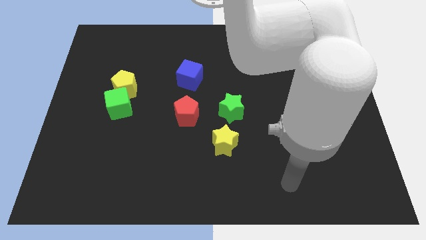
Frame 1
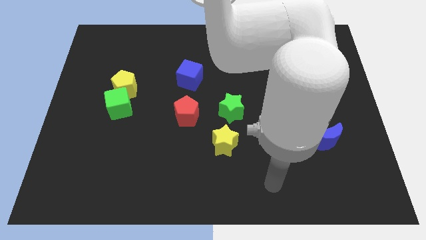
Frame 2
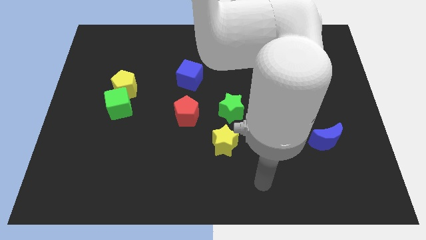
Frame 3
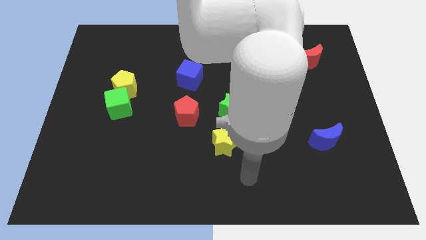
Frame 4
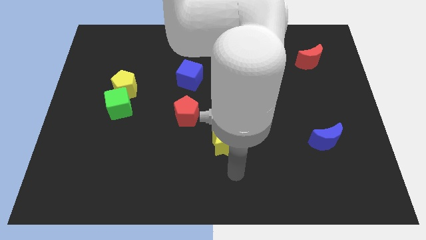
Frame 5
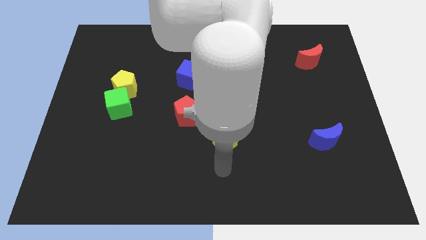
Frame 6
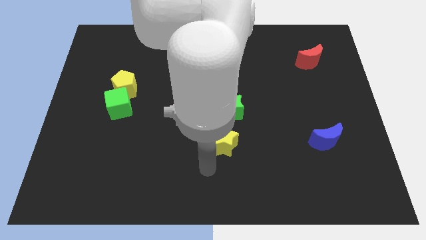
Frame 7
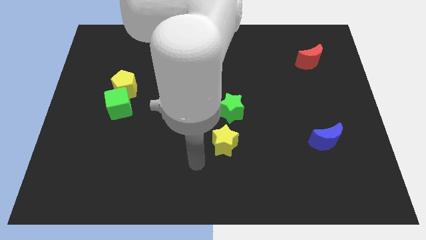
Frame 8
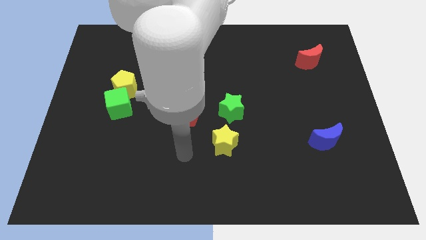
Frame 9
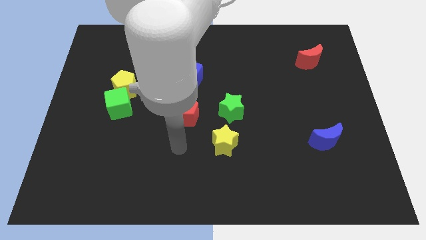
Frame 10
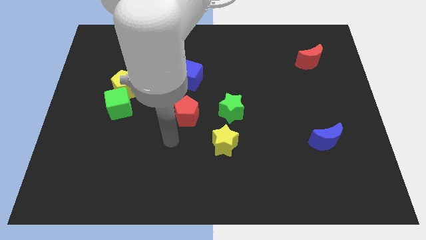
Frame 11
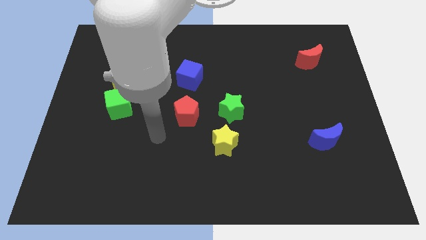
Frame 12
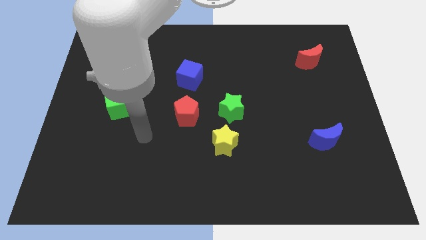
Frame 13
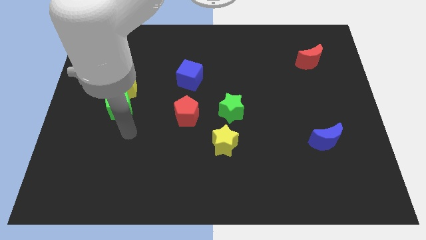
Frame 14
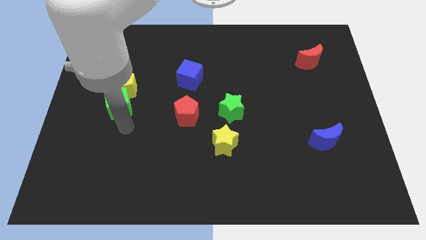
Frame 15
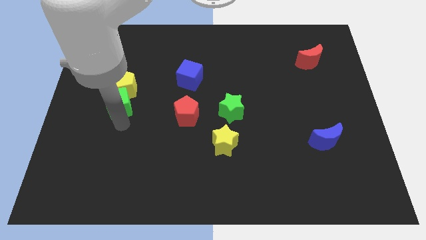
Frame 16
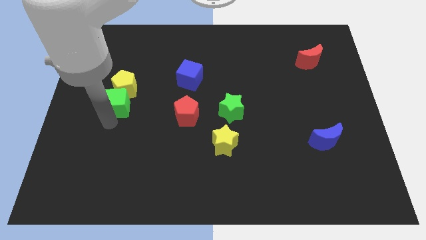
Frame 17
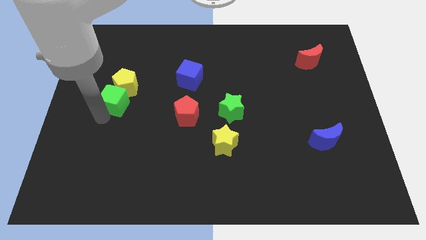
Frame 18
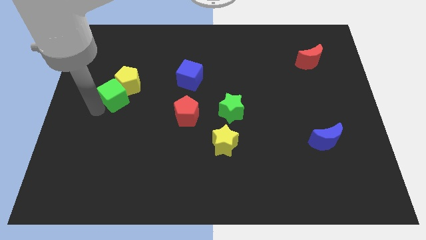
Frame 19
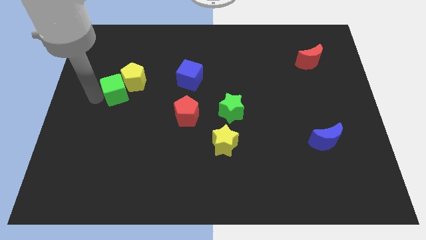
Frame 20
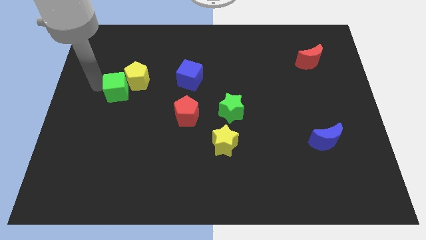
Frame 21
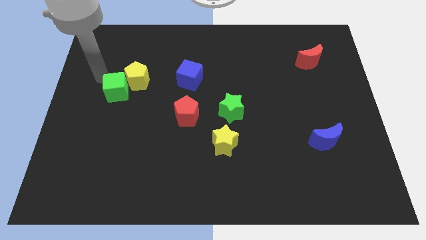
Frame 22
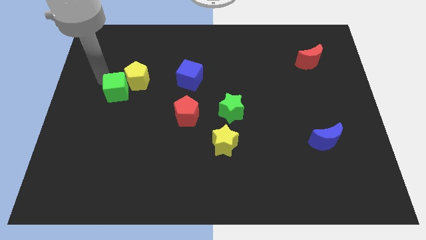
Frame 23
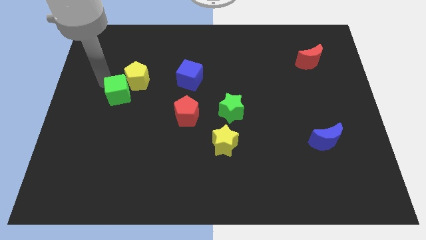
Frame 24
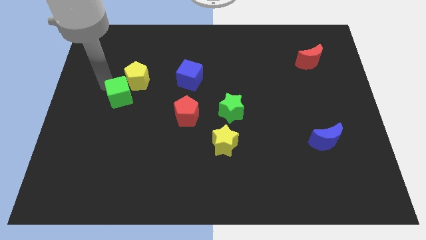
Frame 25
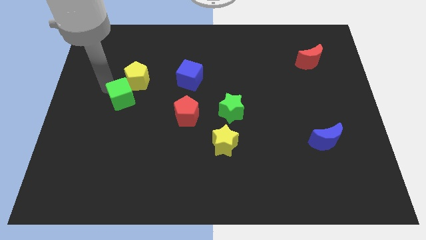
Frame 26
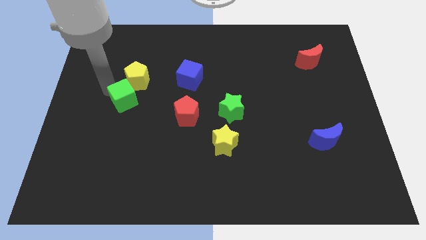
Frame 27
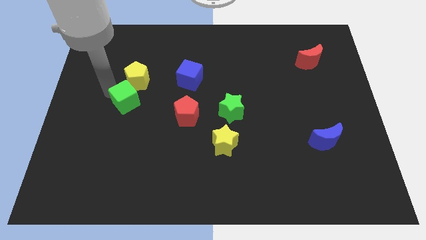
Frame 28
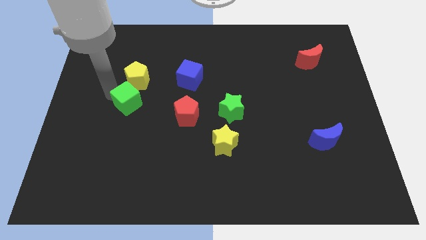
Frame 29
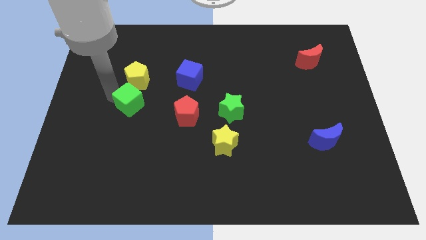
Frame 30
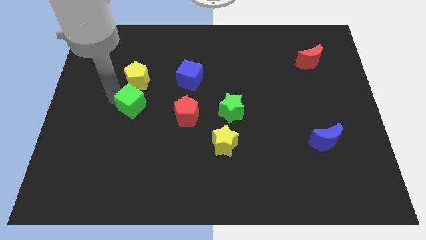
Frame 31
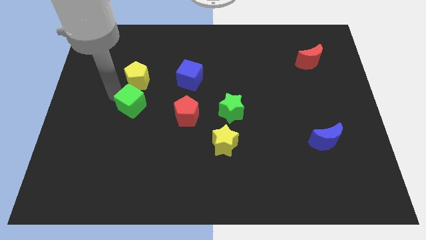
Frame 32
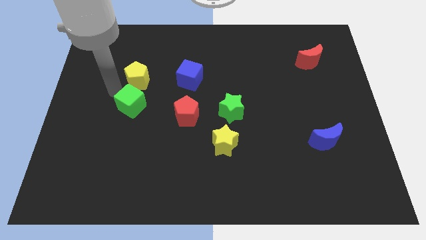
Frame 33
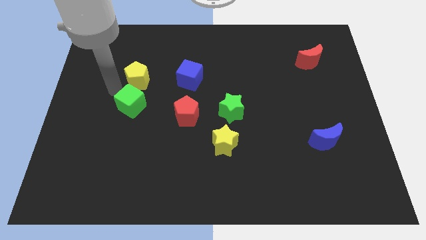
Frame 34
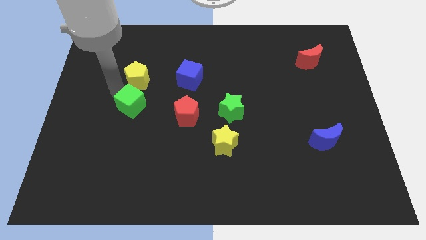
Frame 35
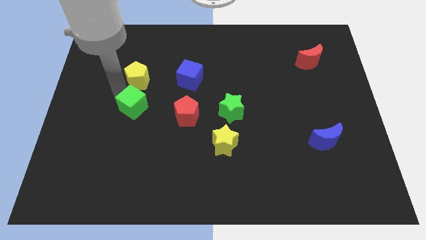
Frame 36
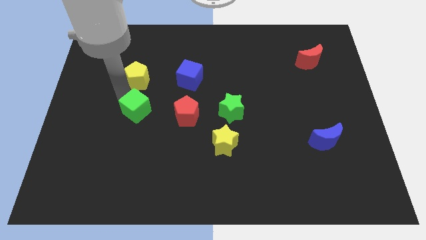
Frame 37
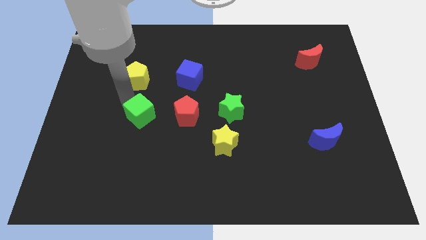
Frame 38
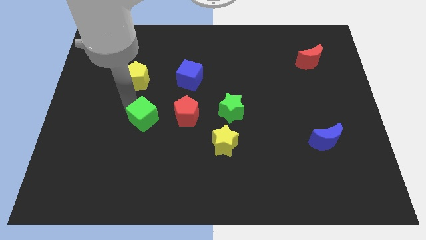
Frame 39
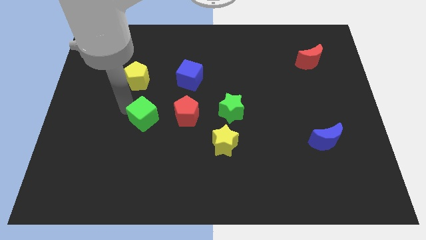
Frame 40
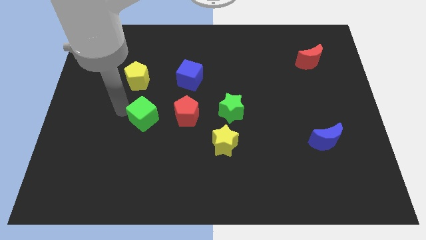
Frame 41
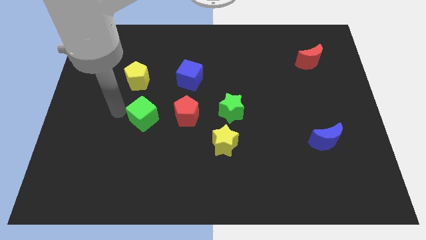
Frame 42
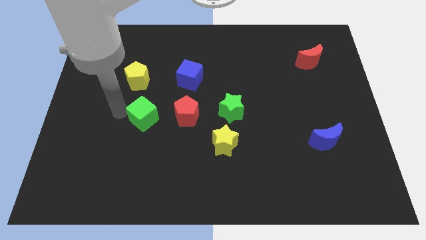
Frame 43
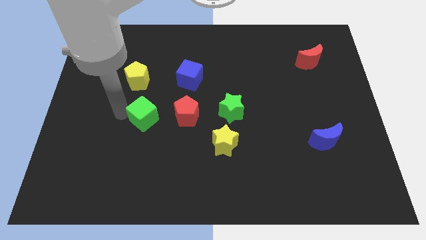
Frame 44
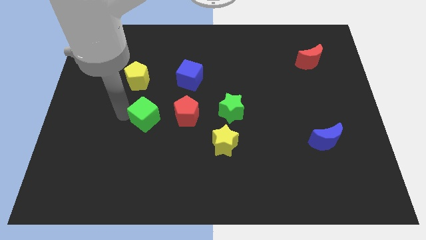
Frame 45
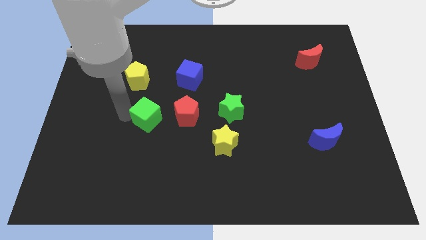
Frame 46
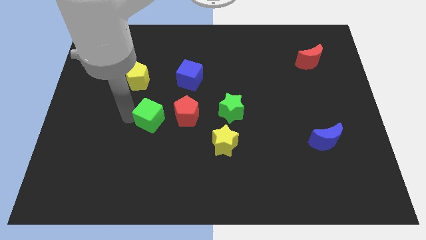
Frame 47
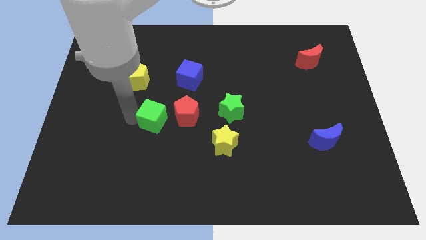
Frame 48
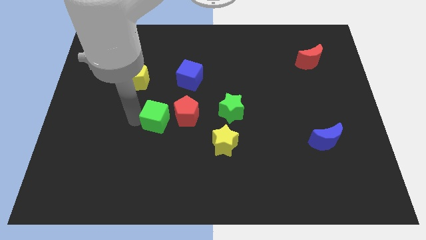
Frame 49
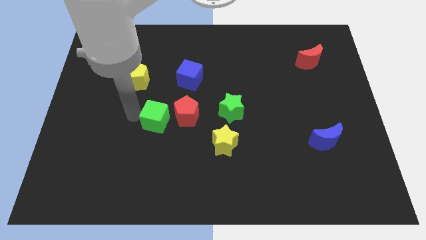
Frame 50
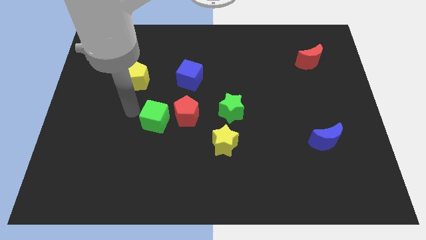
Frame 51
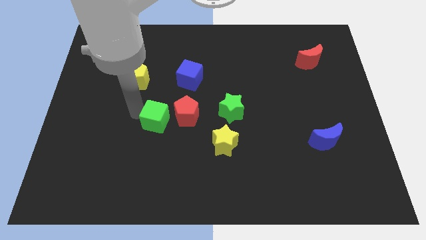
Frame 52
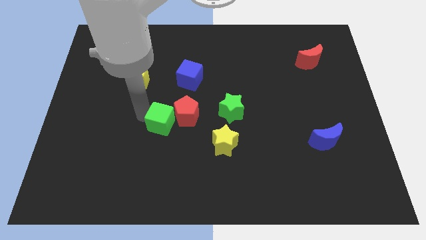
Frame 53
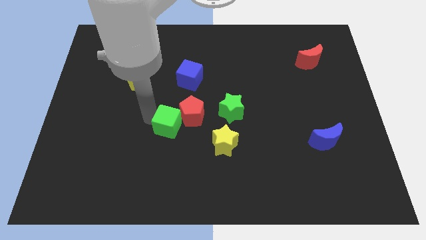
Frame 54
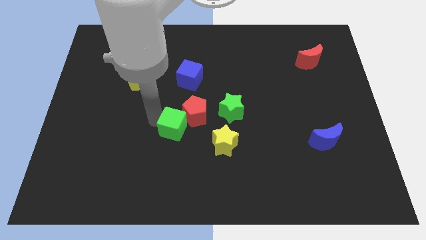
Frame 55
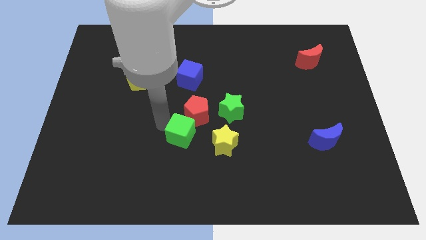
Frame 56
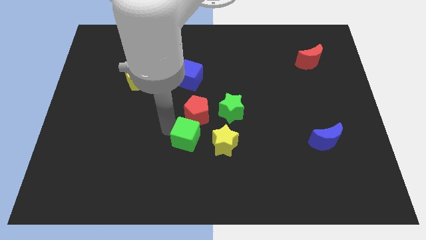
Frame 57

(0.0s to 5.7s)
push the green cube to the bottom left side of the green star

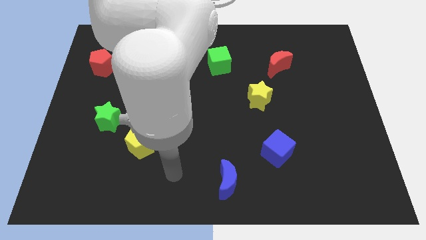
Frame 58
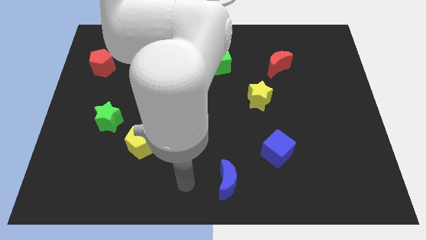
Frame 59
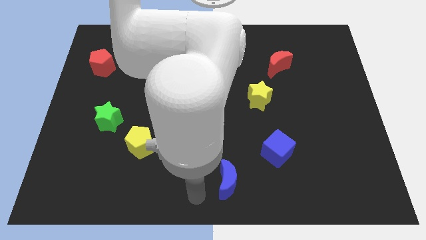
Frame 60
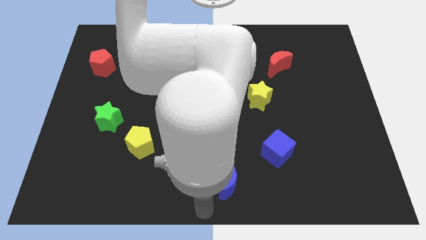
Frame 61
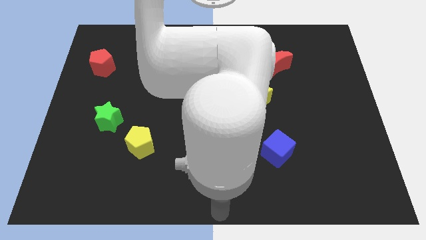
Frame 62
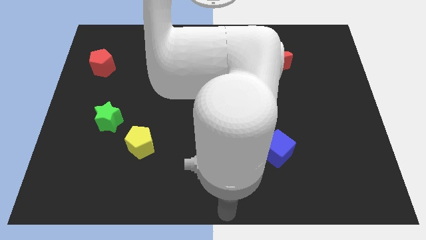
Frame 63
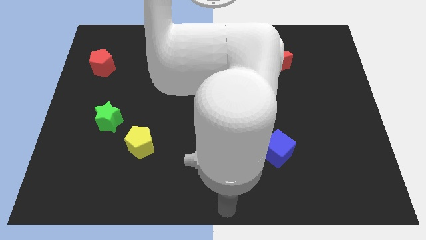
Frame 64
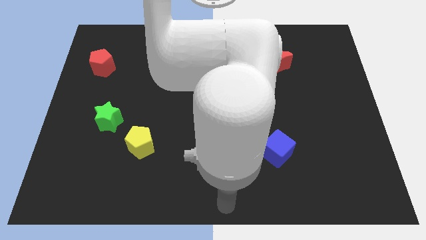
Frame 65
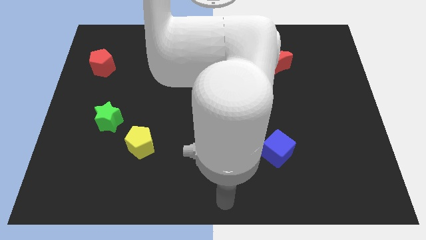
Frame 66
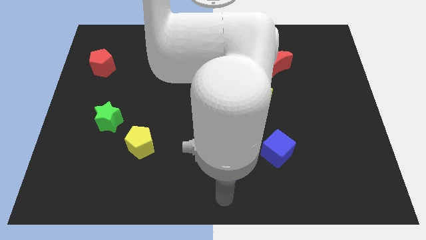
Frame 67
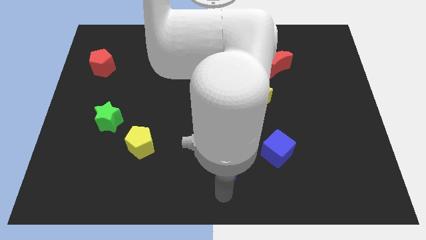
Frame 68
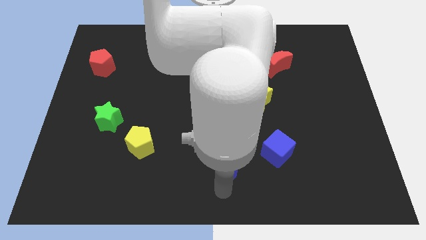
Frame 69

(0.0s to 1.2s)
put the blue moon to the left side of the blue cube

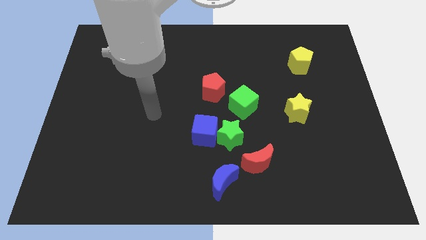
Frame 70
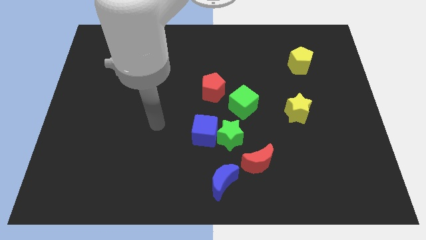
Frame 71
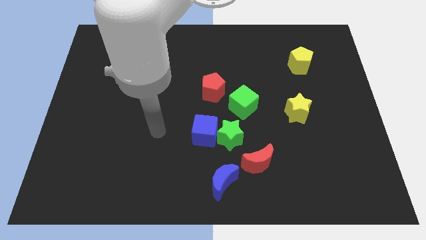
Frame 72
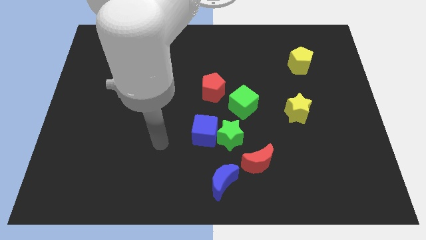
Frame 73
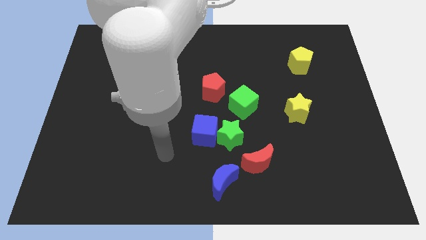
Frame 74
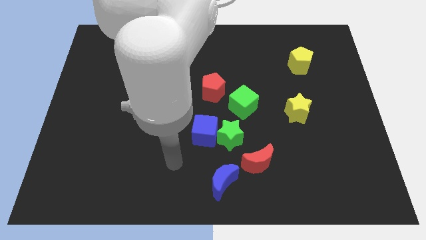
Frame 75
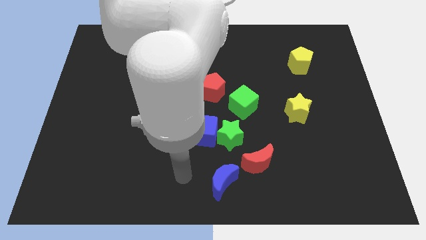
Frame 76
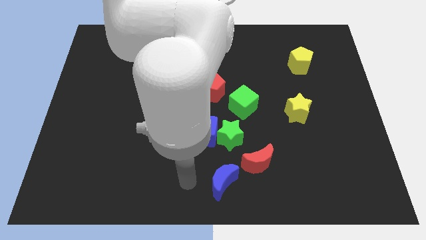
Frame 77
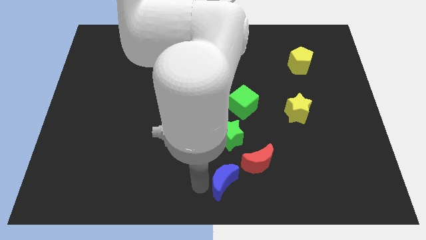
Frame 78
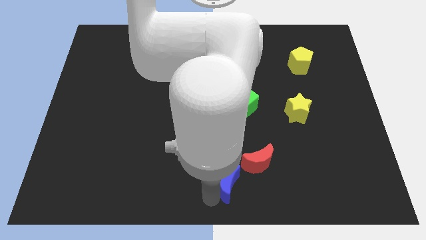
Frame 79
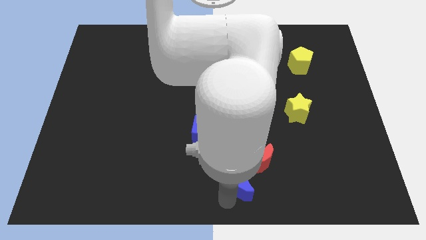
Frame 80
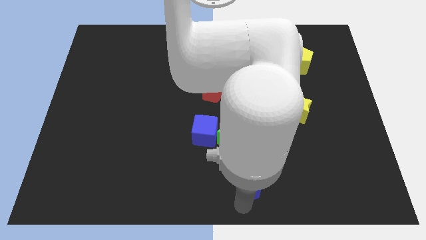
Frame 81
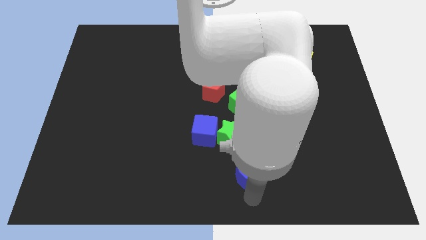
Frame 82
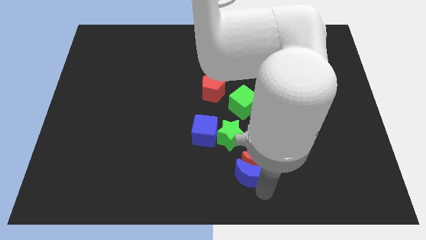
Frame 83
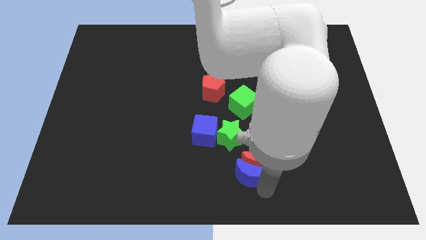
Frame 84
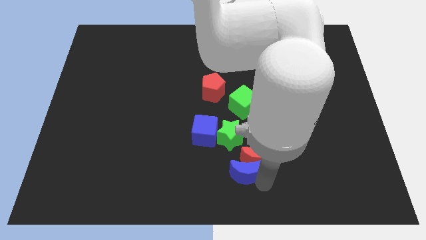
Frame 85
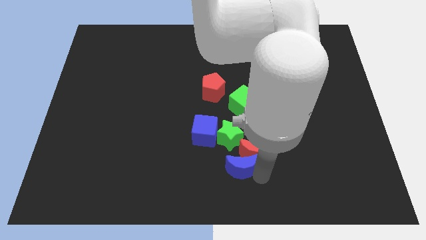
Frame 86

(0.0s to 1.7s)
slide the red moon to the right side of the blue cube
